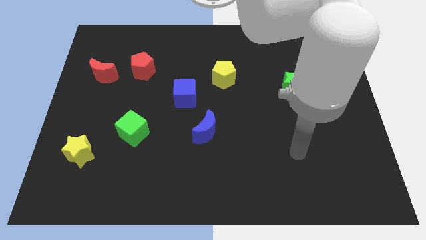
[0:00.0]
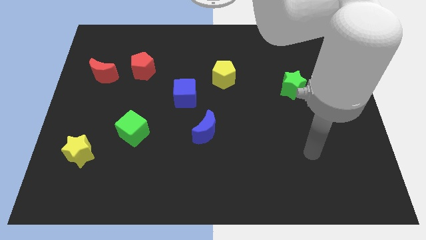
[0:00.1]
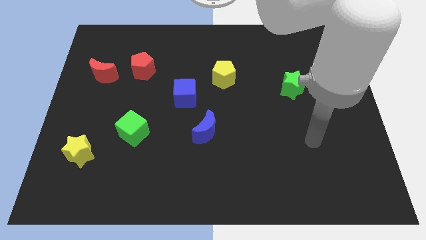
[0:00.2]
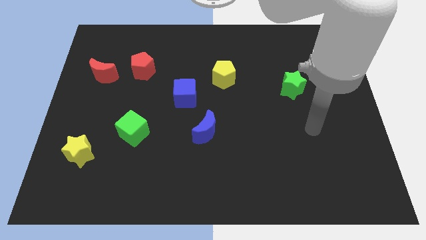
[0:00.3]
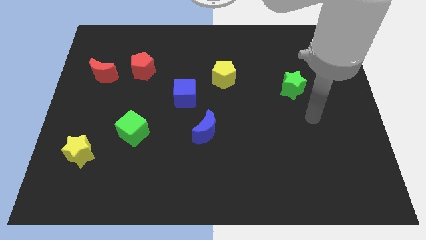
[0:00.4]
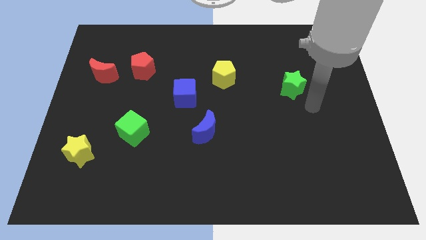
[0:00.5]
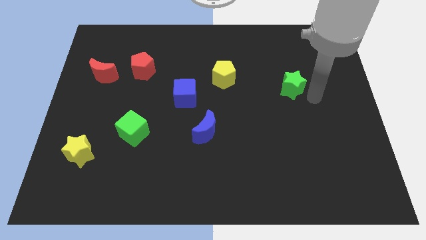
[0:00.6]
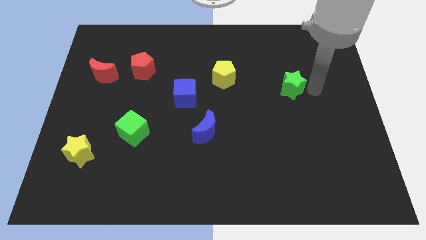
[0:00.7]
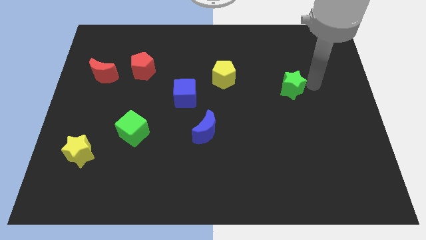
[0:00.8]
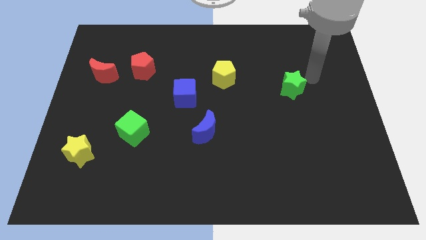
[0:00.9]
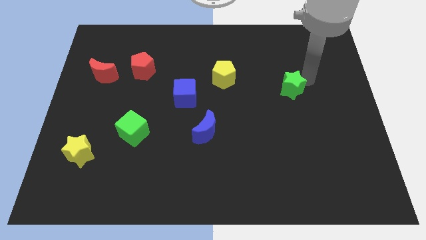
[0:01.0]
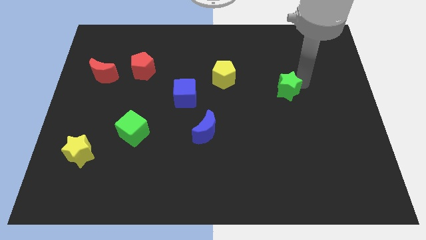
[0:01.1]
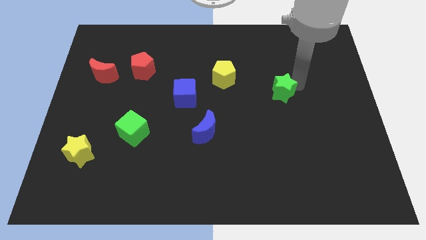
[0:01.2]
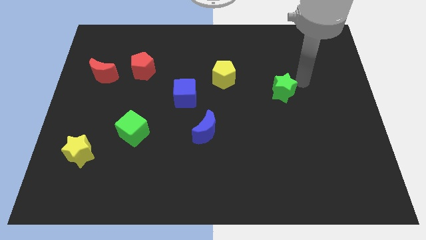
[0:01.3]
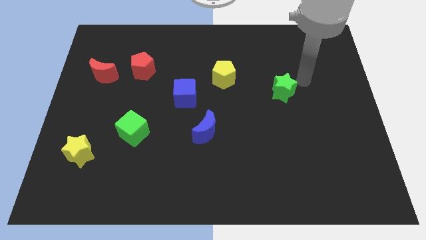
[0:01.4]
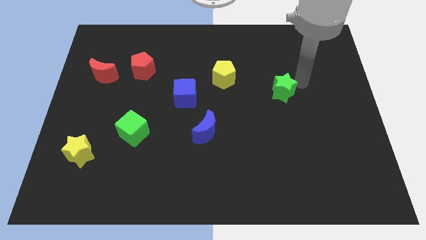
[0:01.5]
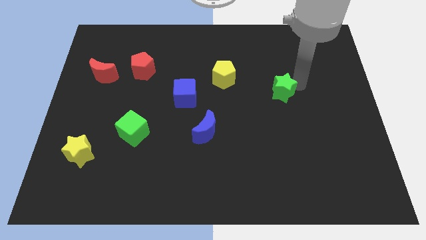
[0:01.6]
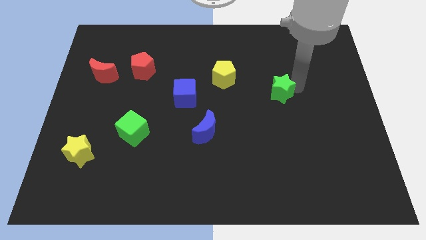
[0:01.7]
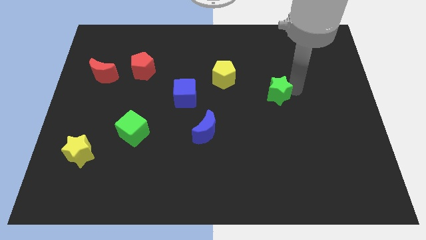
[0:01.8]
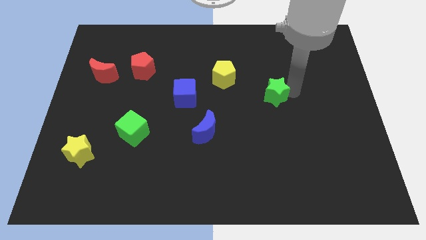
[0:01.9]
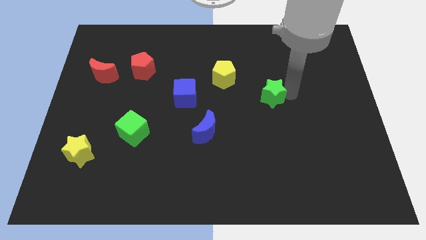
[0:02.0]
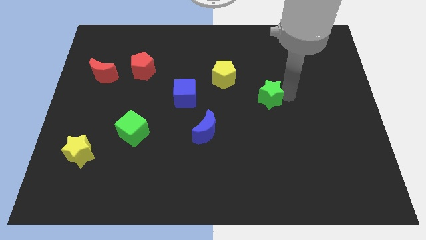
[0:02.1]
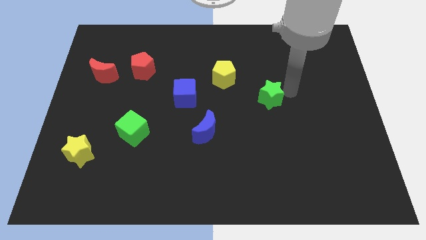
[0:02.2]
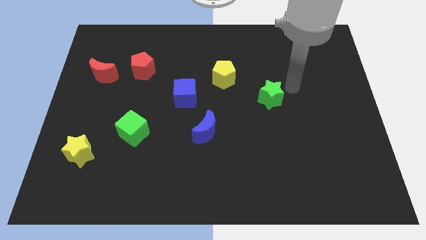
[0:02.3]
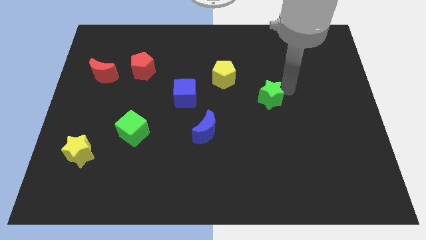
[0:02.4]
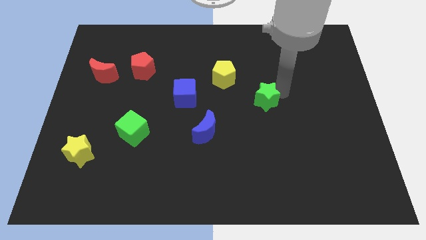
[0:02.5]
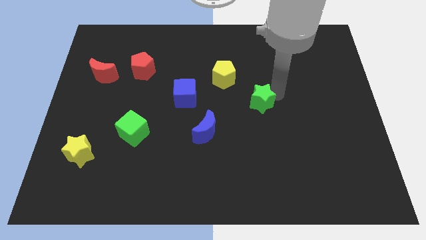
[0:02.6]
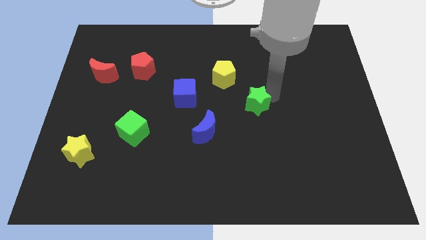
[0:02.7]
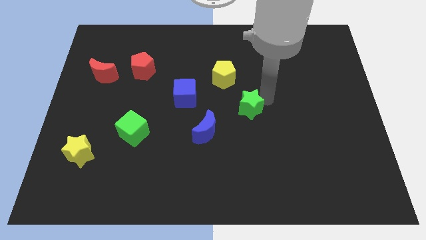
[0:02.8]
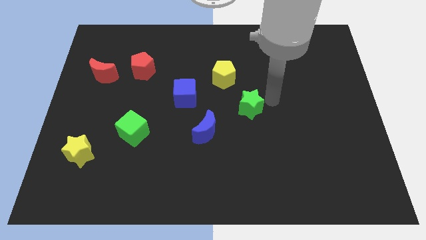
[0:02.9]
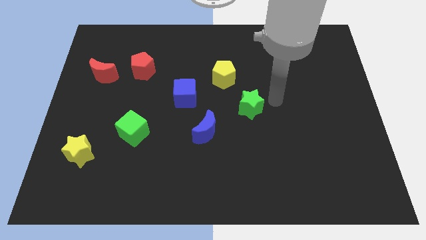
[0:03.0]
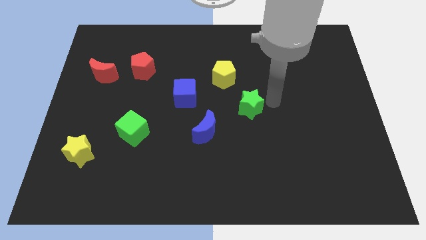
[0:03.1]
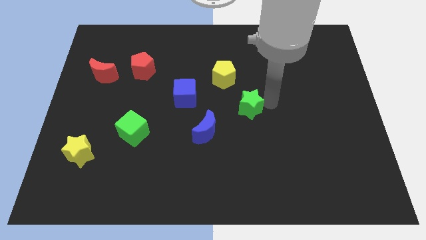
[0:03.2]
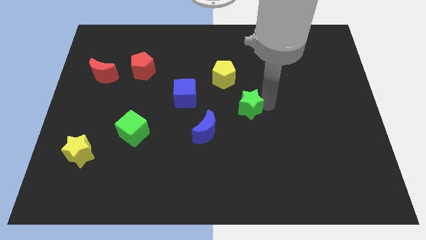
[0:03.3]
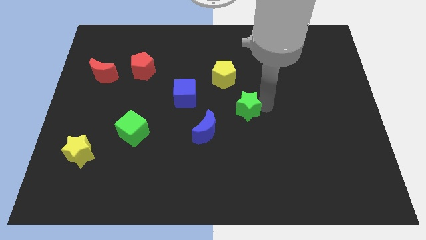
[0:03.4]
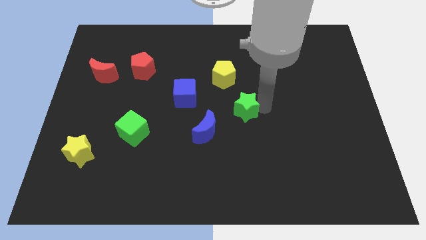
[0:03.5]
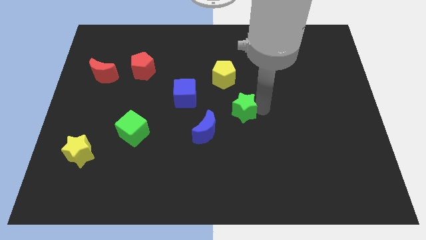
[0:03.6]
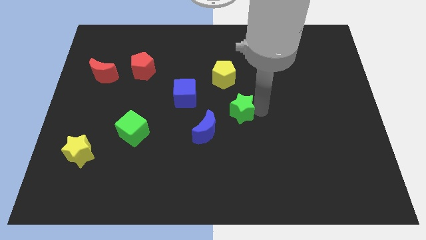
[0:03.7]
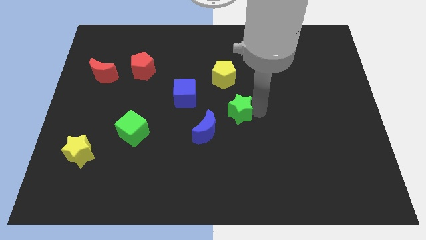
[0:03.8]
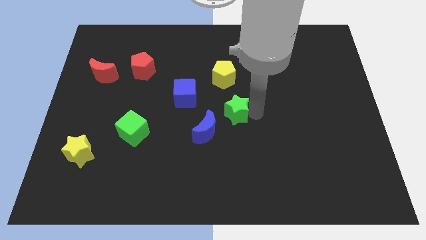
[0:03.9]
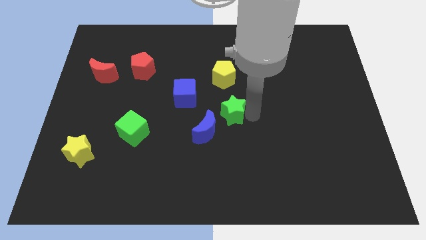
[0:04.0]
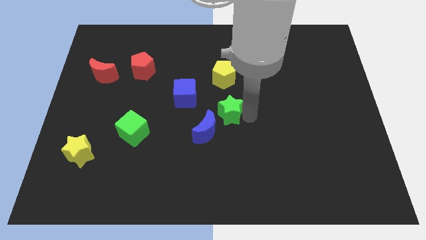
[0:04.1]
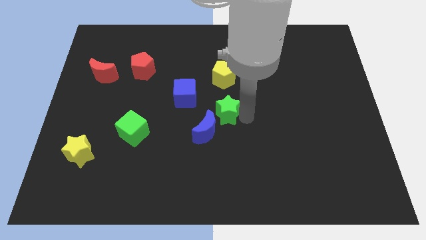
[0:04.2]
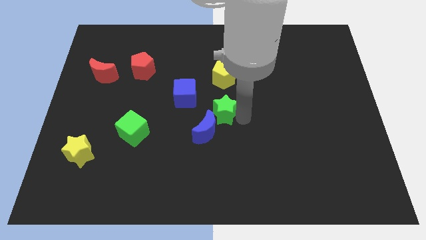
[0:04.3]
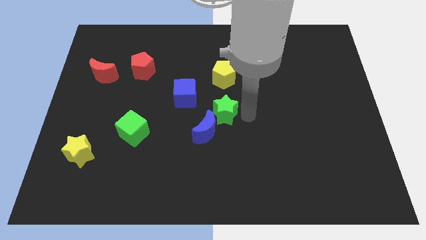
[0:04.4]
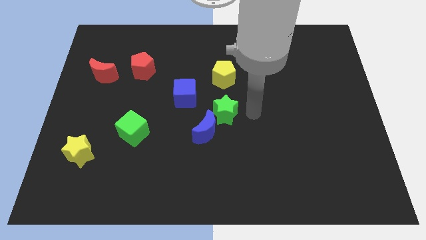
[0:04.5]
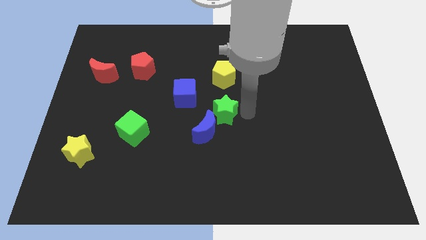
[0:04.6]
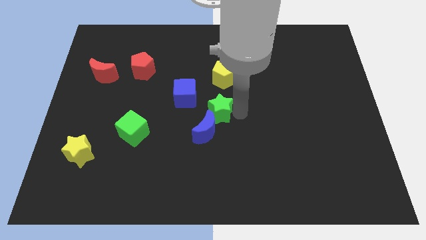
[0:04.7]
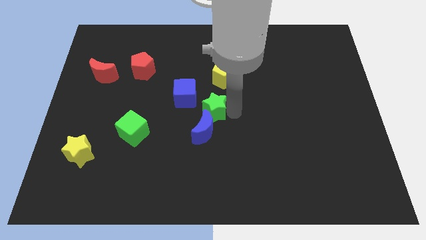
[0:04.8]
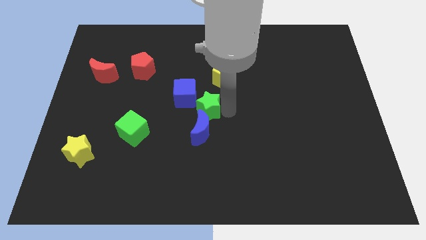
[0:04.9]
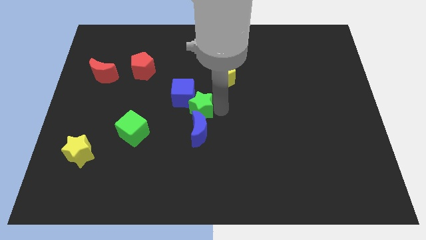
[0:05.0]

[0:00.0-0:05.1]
move the green star to the top left side of the blue moon

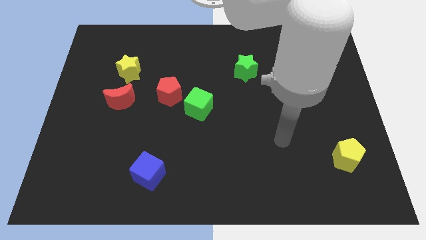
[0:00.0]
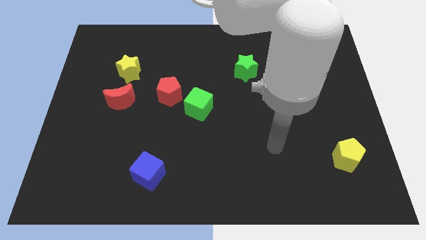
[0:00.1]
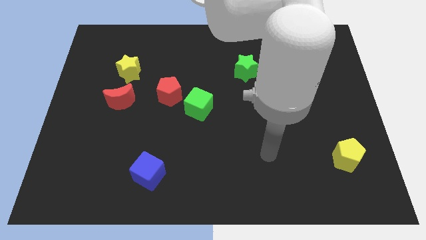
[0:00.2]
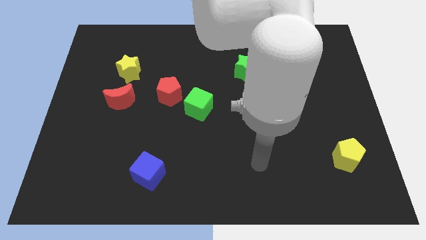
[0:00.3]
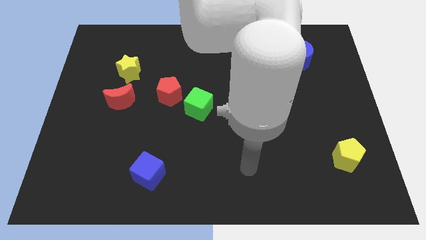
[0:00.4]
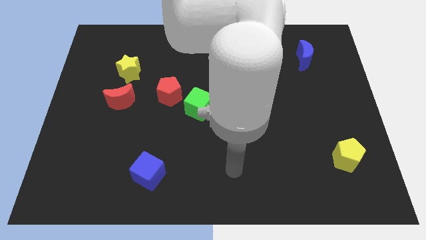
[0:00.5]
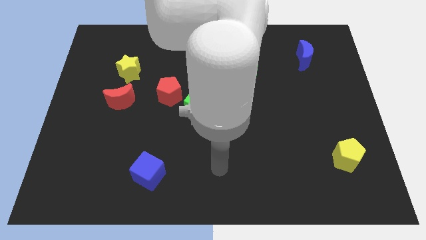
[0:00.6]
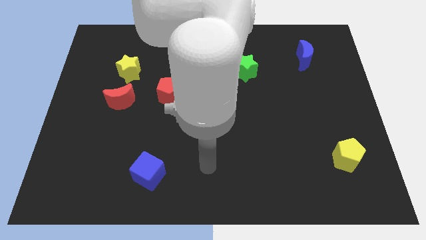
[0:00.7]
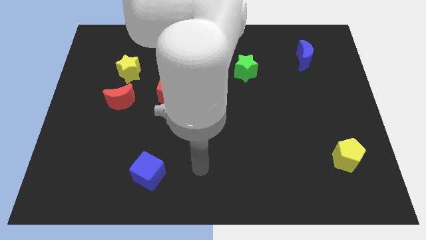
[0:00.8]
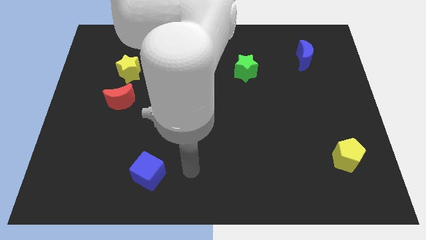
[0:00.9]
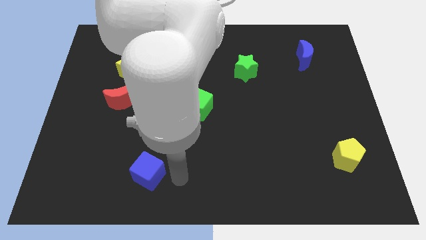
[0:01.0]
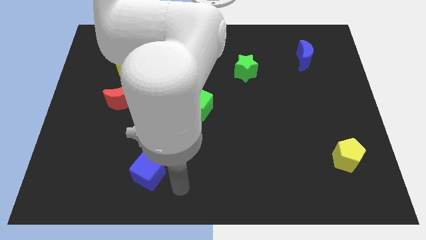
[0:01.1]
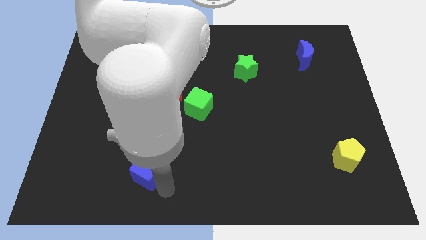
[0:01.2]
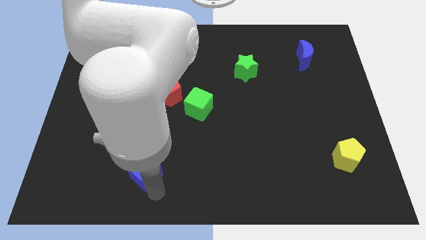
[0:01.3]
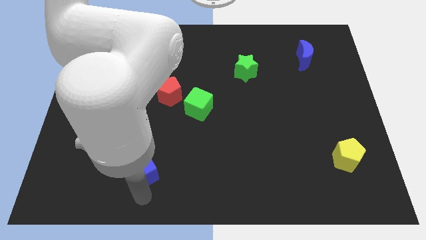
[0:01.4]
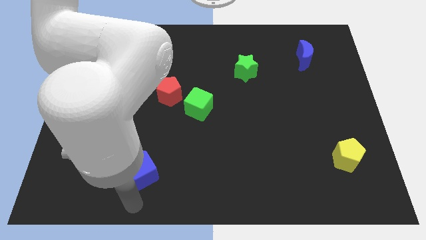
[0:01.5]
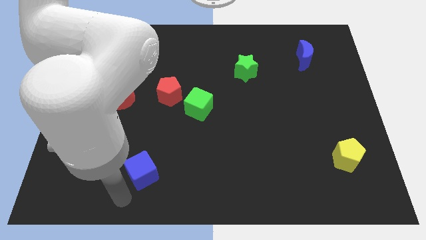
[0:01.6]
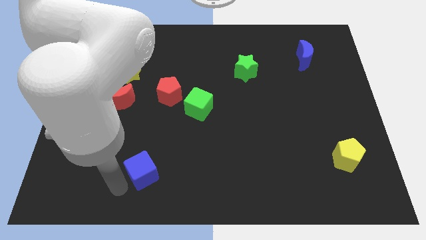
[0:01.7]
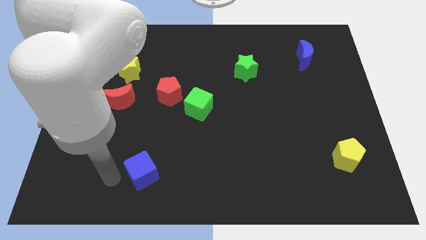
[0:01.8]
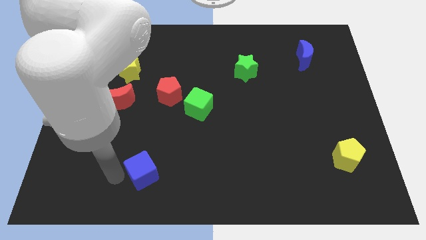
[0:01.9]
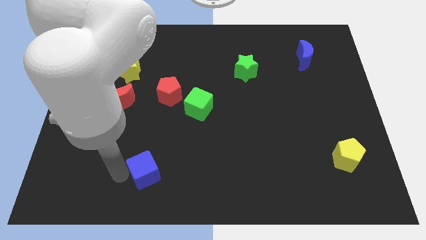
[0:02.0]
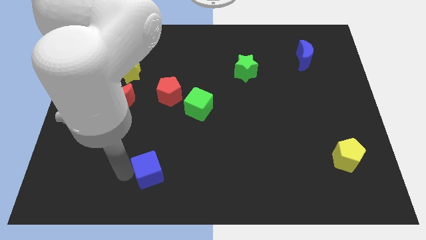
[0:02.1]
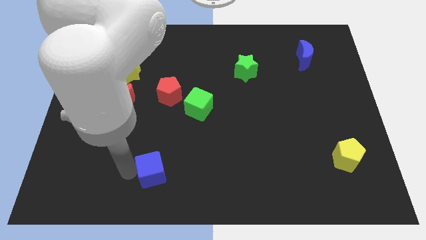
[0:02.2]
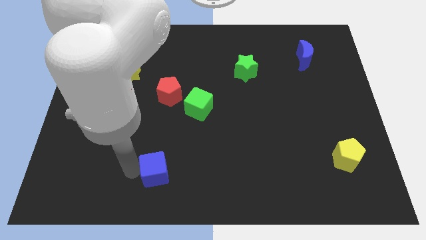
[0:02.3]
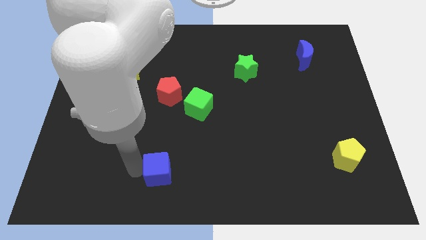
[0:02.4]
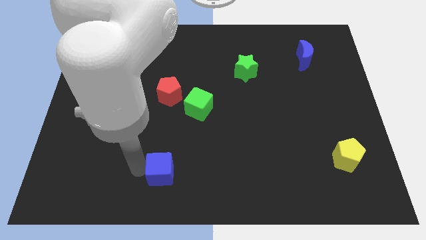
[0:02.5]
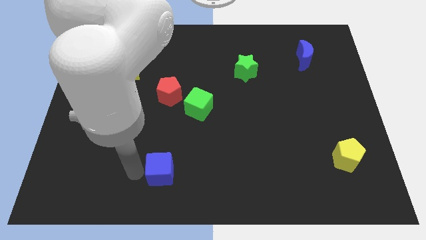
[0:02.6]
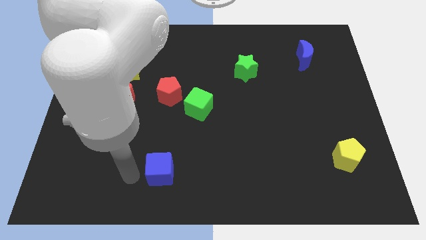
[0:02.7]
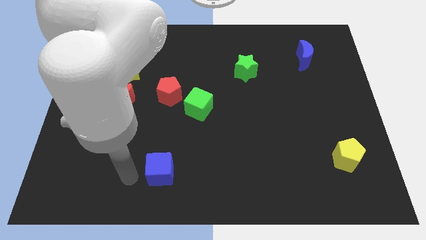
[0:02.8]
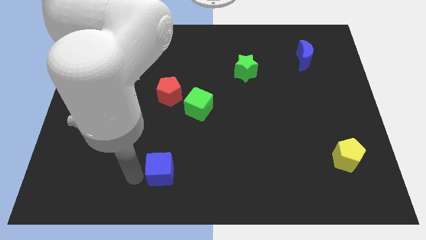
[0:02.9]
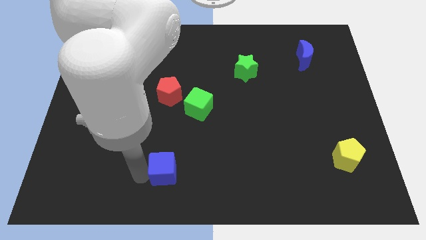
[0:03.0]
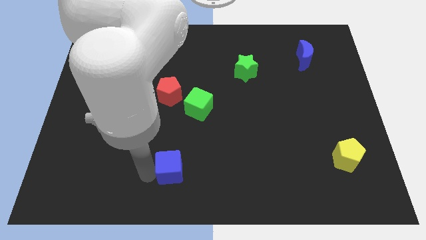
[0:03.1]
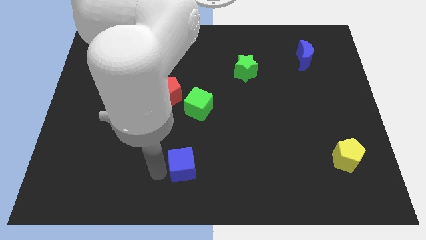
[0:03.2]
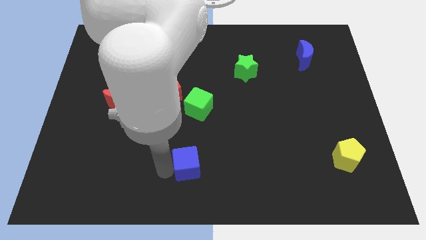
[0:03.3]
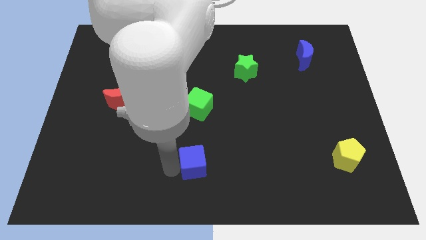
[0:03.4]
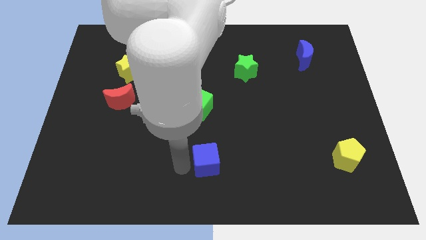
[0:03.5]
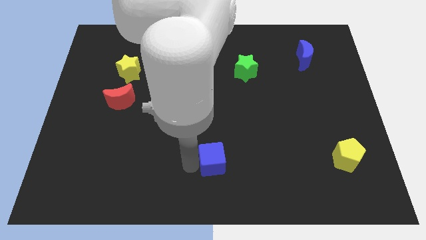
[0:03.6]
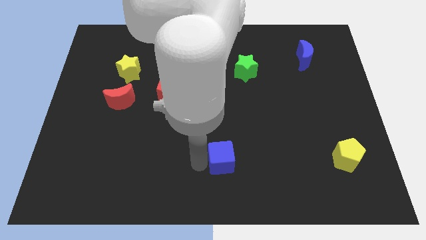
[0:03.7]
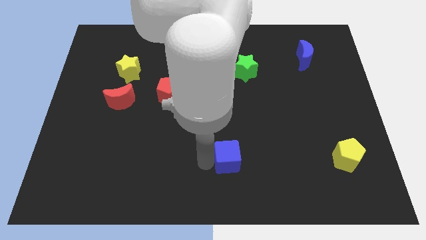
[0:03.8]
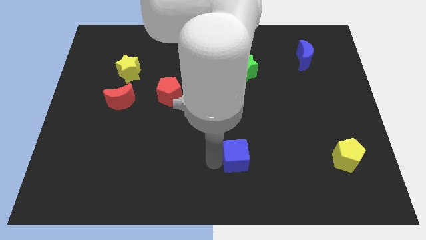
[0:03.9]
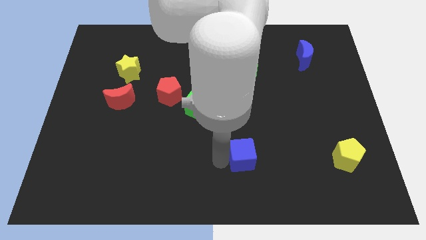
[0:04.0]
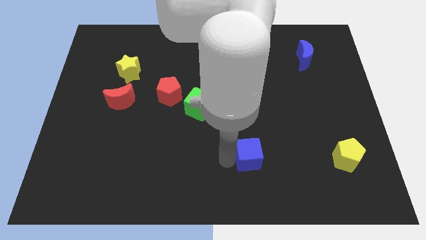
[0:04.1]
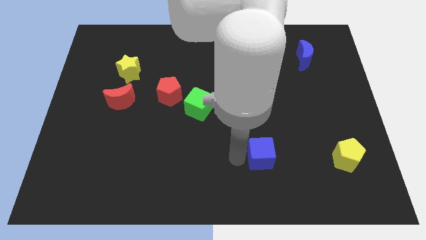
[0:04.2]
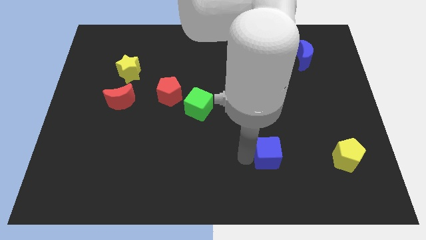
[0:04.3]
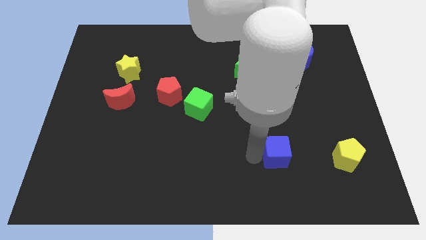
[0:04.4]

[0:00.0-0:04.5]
push the blue cube left of the yellow pentagon
